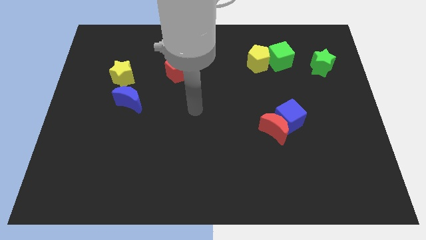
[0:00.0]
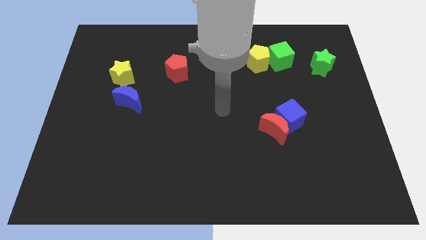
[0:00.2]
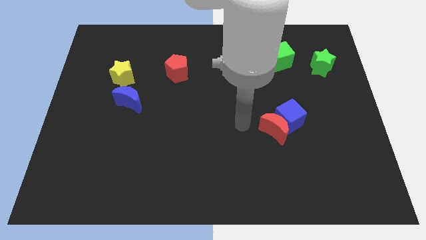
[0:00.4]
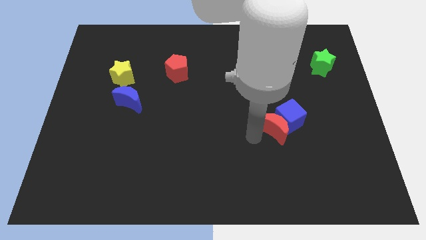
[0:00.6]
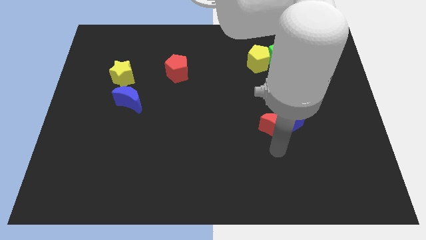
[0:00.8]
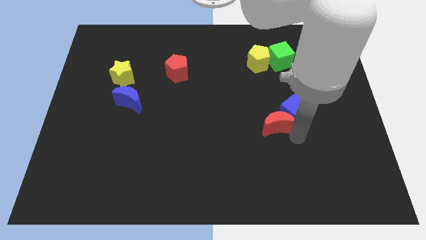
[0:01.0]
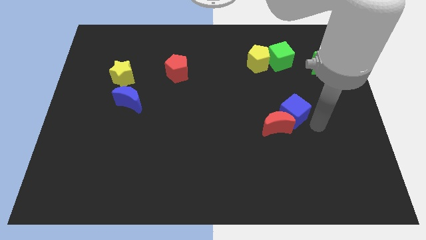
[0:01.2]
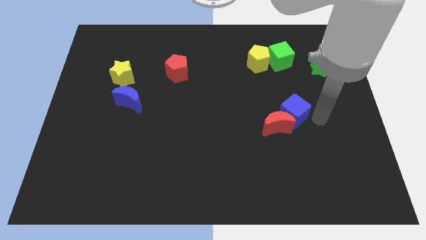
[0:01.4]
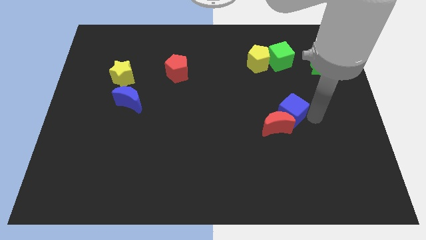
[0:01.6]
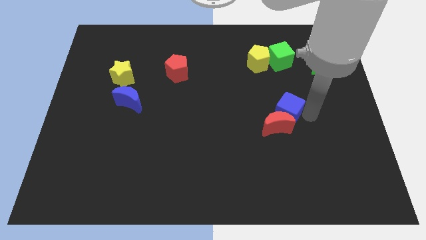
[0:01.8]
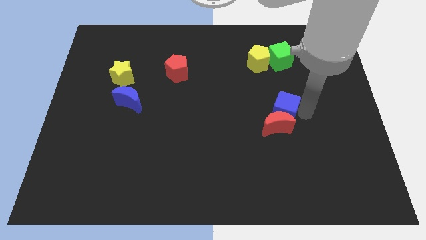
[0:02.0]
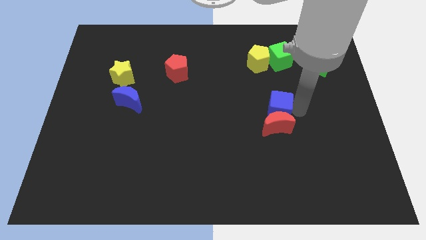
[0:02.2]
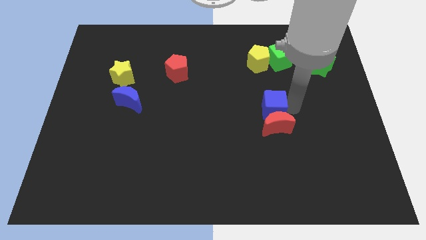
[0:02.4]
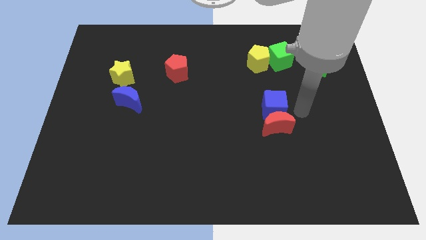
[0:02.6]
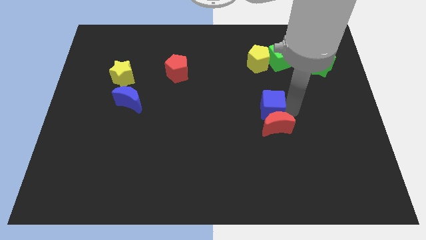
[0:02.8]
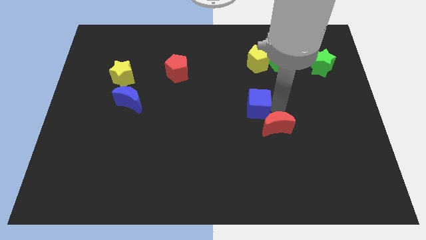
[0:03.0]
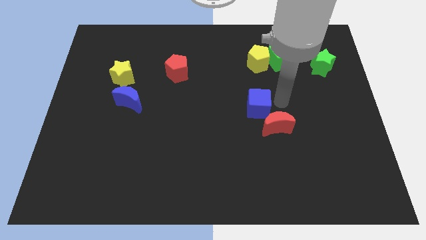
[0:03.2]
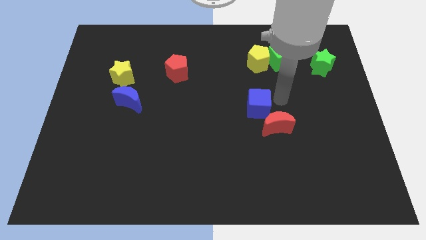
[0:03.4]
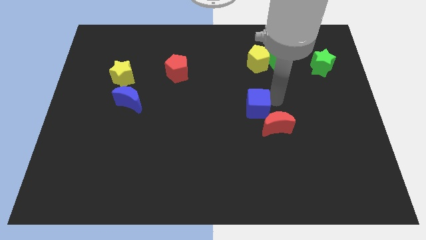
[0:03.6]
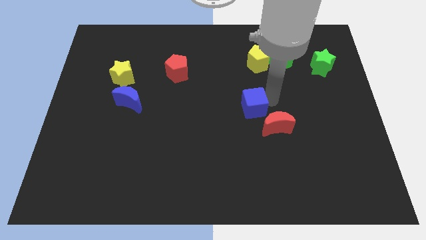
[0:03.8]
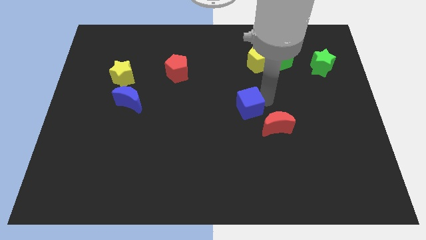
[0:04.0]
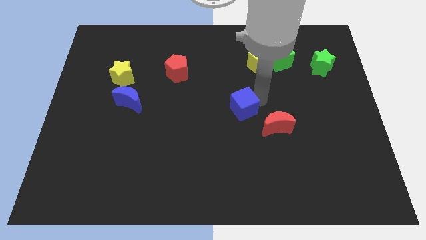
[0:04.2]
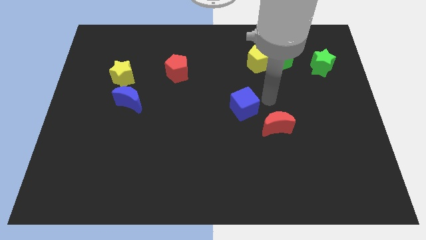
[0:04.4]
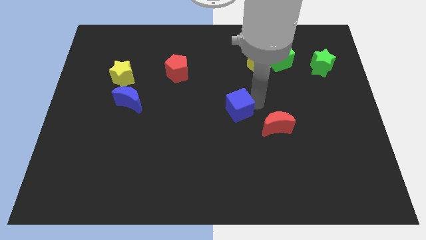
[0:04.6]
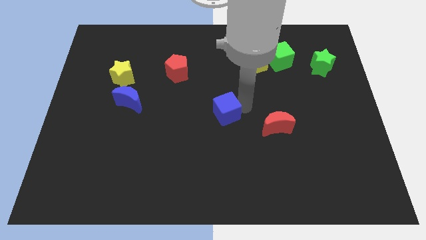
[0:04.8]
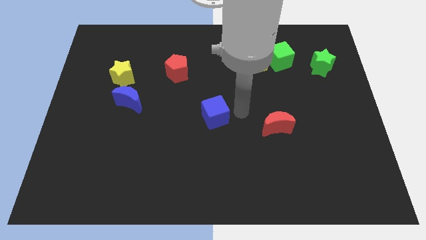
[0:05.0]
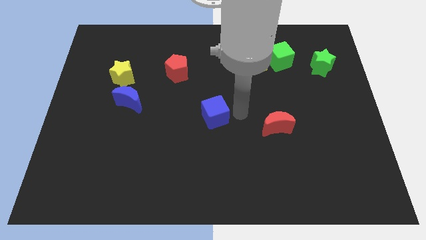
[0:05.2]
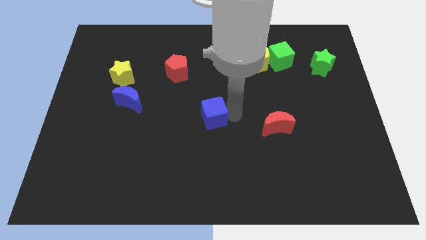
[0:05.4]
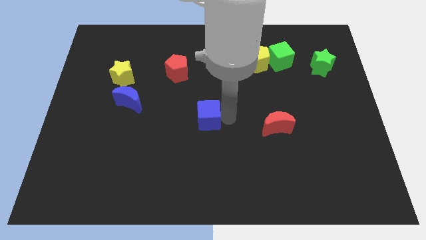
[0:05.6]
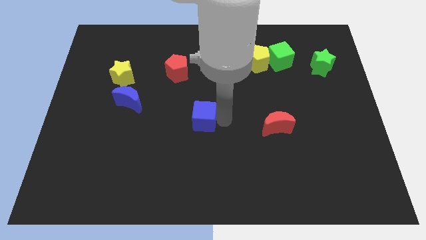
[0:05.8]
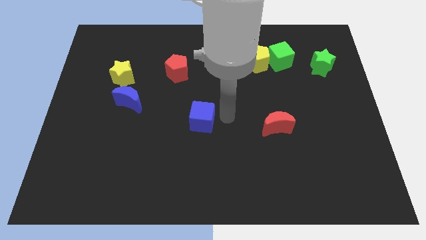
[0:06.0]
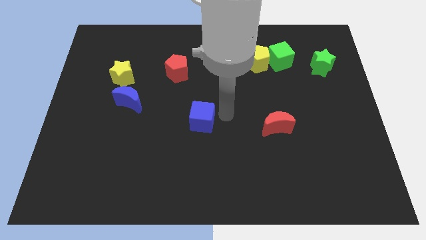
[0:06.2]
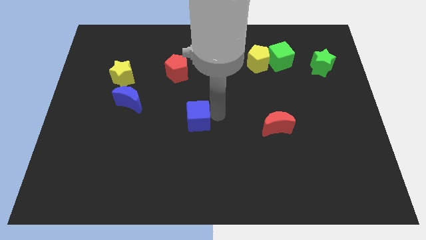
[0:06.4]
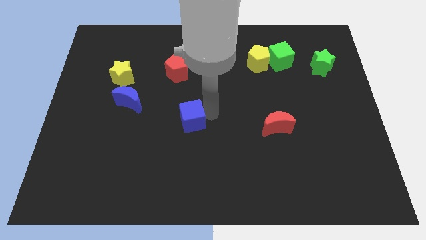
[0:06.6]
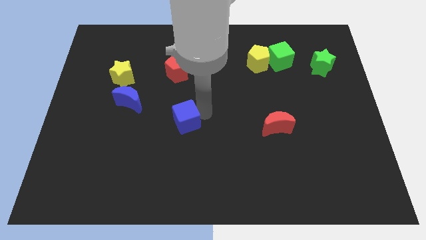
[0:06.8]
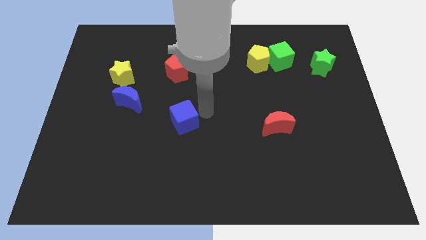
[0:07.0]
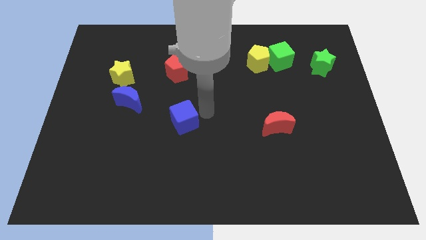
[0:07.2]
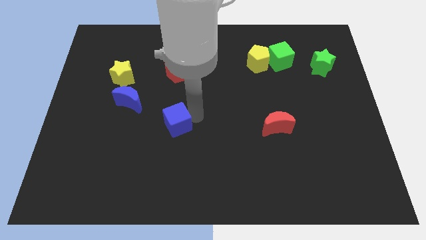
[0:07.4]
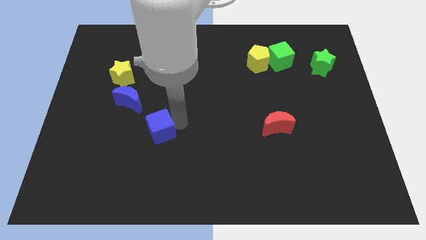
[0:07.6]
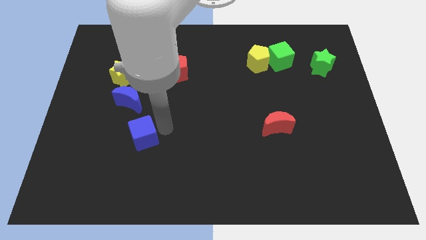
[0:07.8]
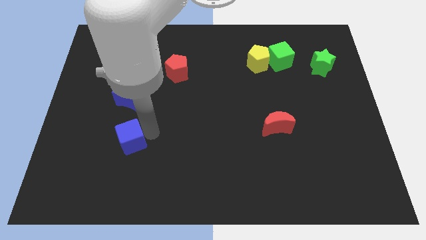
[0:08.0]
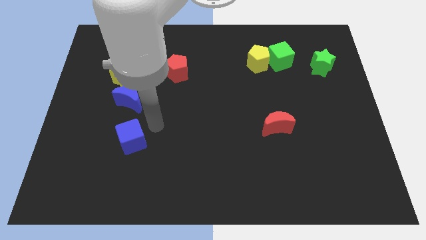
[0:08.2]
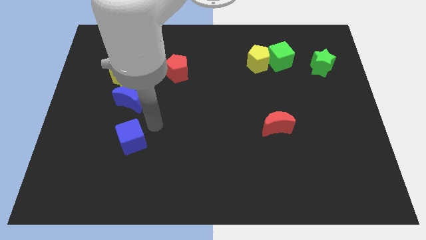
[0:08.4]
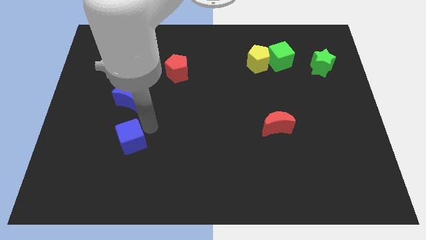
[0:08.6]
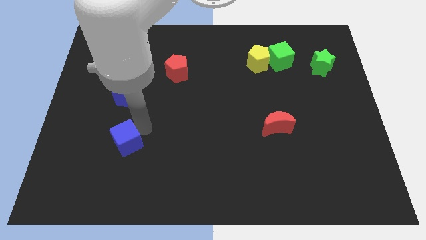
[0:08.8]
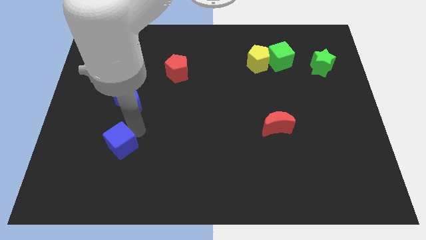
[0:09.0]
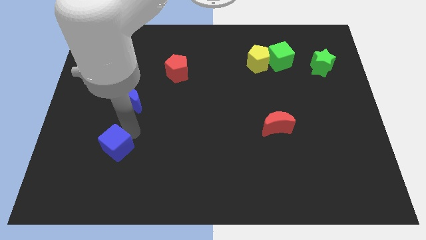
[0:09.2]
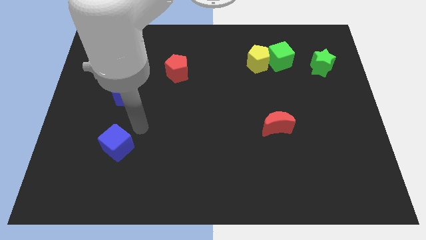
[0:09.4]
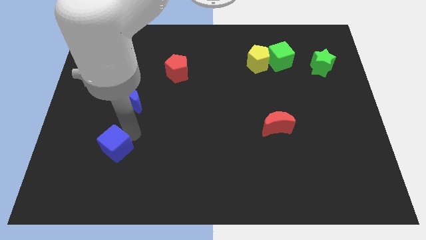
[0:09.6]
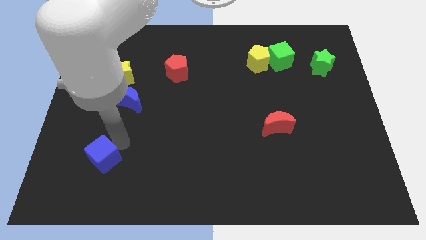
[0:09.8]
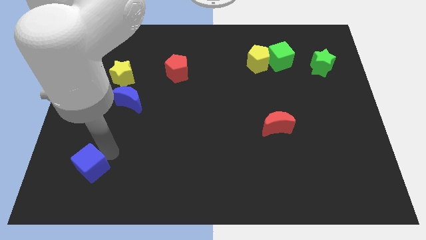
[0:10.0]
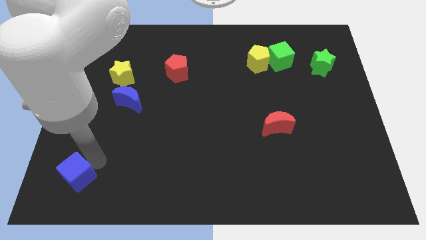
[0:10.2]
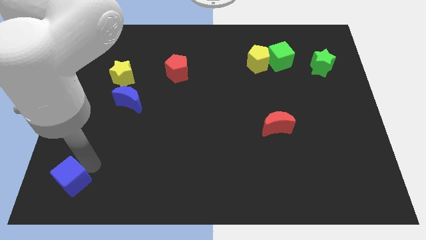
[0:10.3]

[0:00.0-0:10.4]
slide the blue cube to the bottom left
